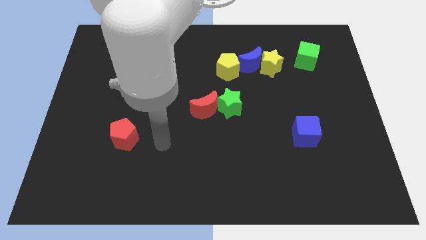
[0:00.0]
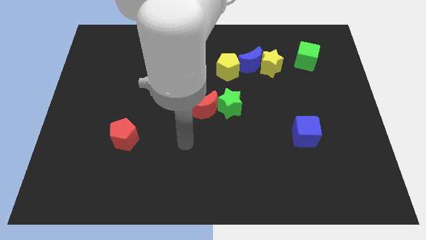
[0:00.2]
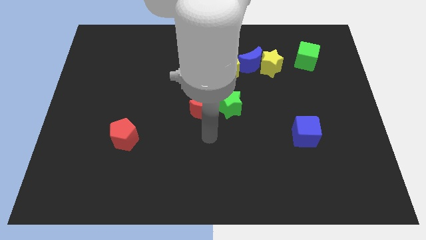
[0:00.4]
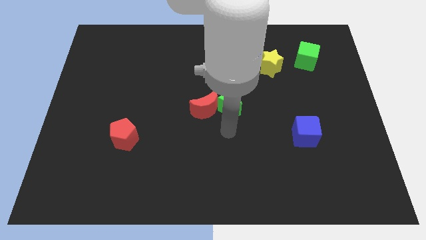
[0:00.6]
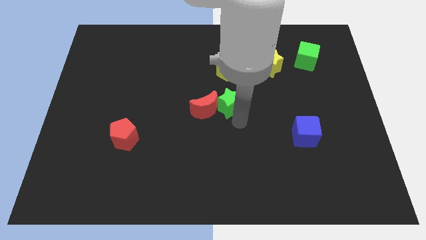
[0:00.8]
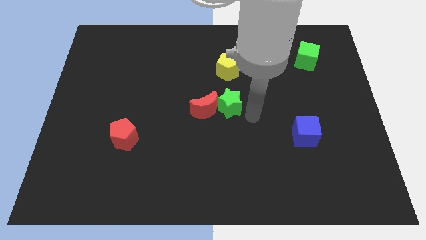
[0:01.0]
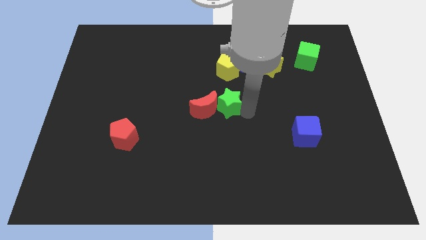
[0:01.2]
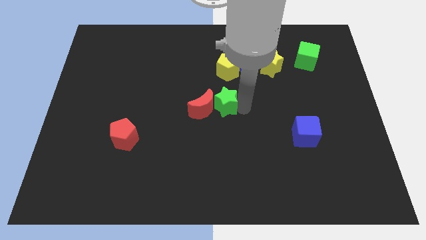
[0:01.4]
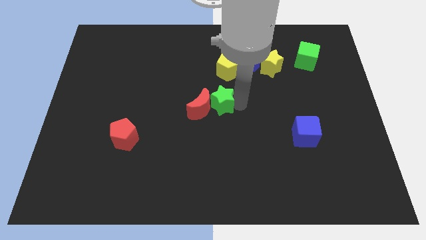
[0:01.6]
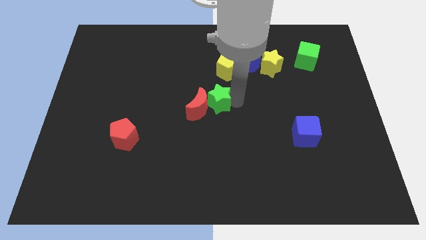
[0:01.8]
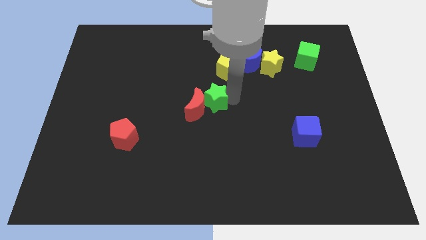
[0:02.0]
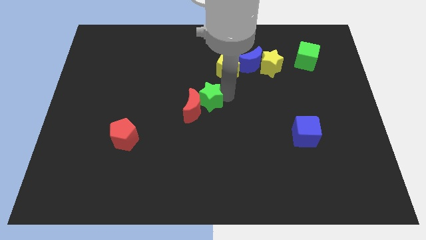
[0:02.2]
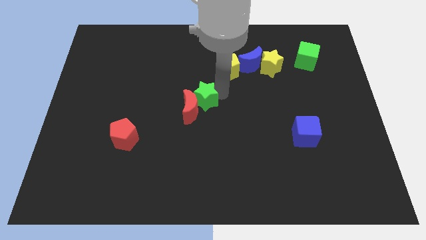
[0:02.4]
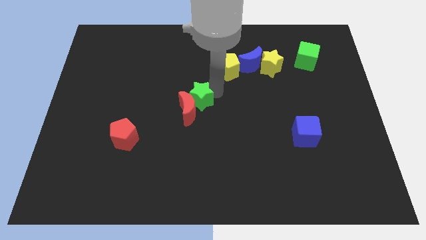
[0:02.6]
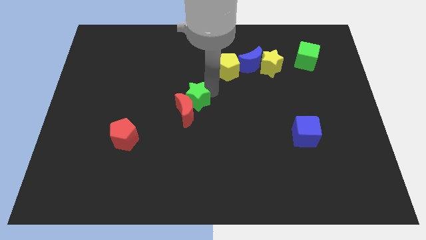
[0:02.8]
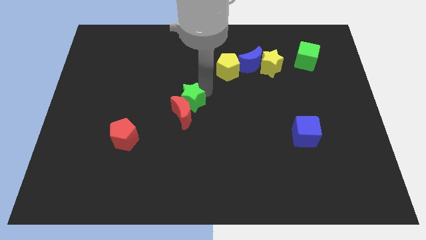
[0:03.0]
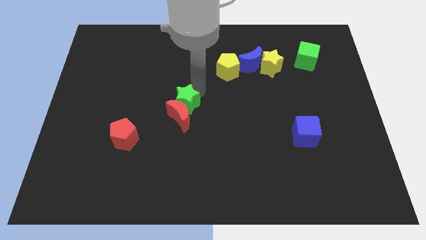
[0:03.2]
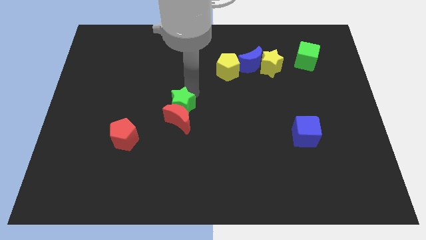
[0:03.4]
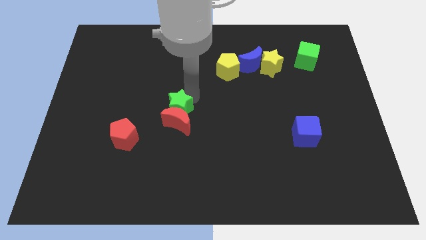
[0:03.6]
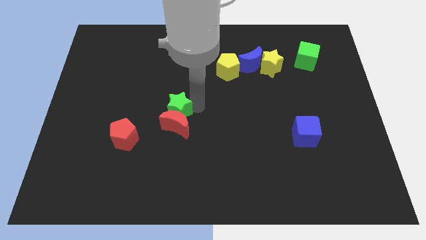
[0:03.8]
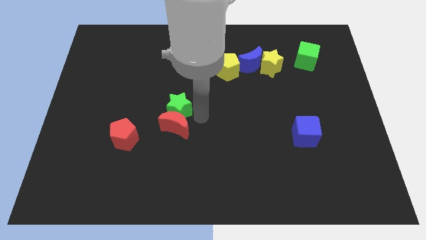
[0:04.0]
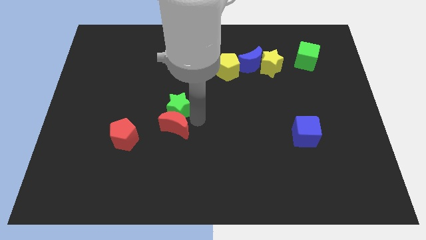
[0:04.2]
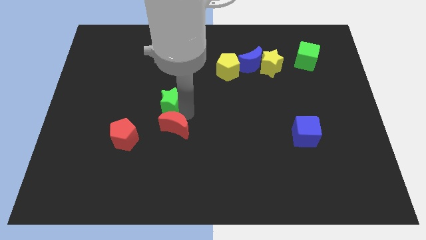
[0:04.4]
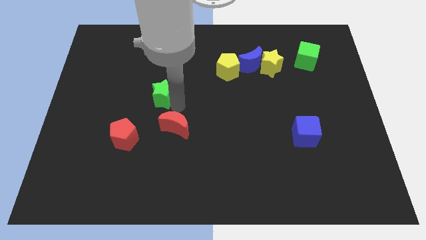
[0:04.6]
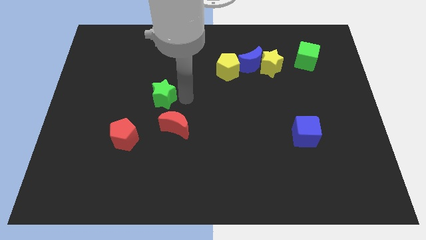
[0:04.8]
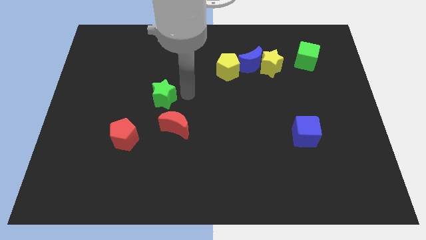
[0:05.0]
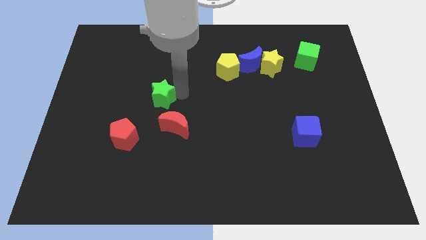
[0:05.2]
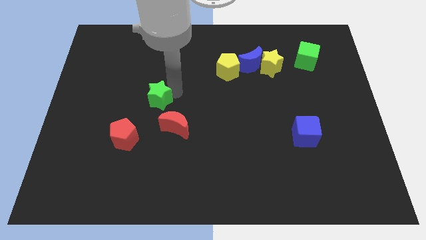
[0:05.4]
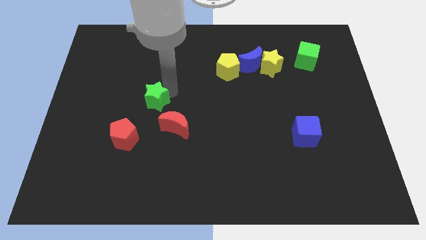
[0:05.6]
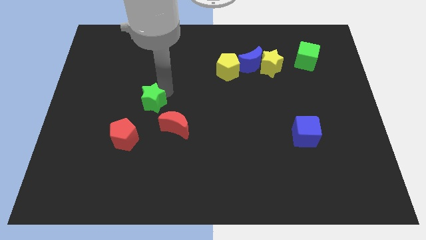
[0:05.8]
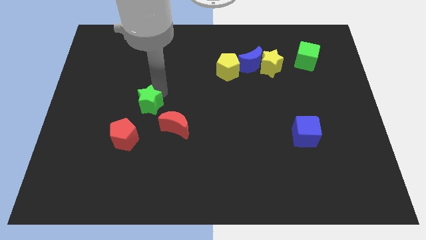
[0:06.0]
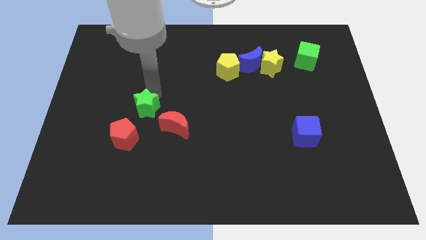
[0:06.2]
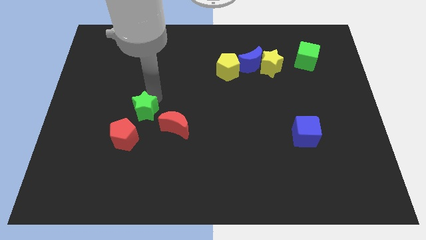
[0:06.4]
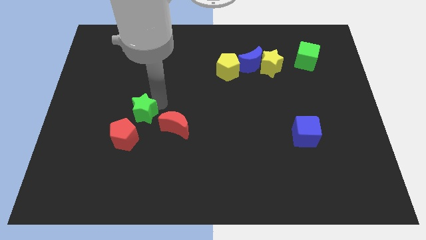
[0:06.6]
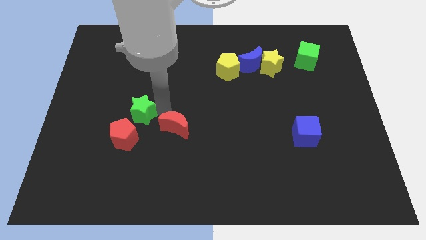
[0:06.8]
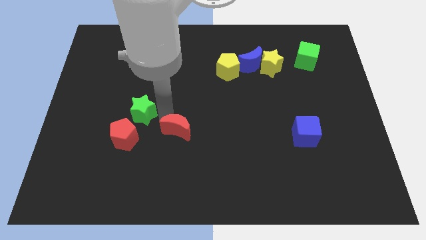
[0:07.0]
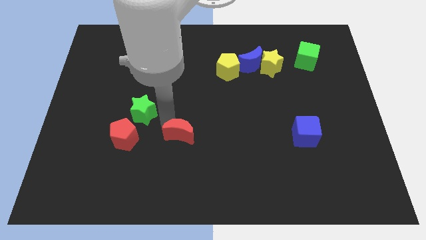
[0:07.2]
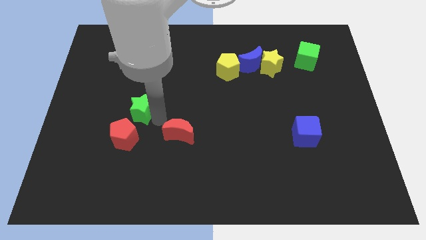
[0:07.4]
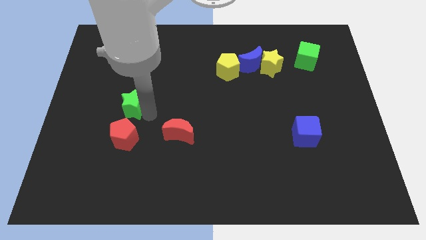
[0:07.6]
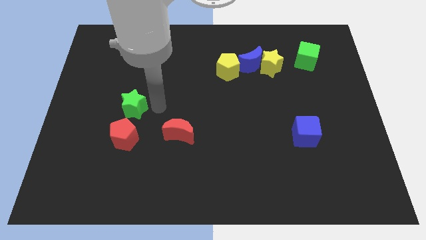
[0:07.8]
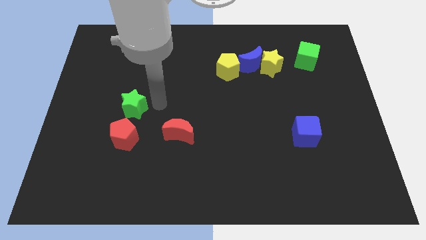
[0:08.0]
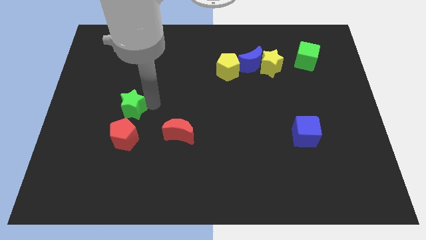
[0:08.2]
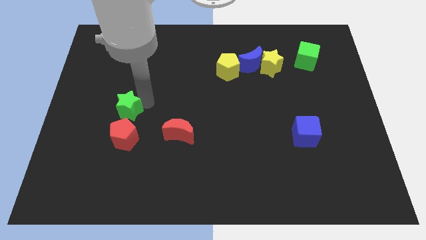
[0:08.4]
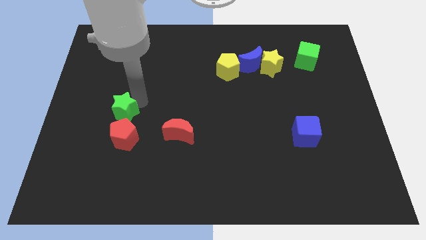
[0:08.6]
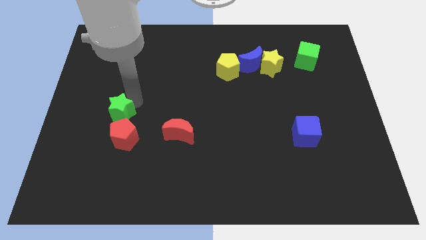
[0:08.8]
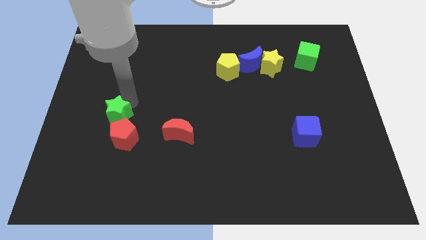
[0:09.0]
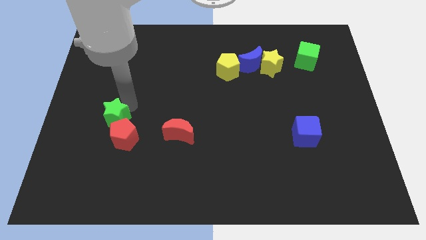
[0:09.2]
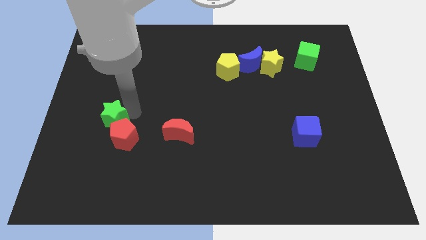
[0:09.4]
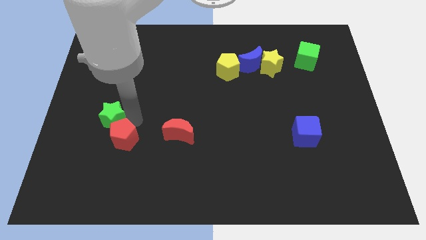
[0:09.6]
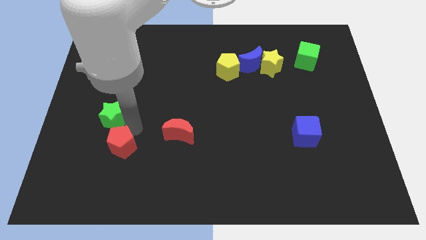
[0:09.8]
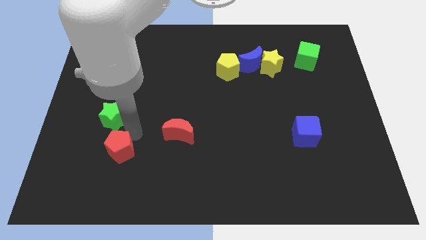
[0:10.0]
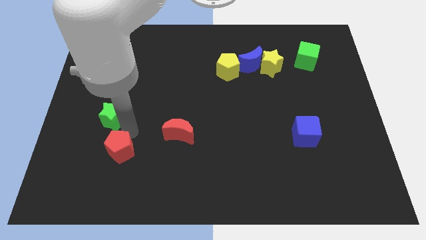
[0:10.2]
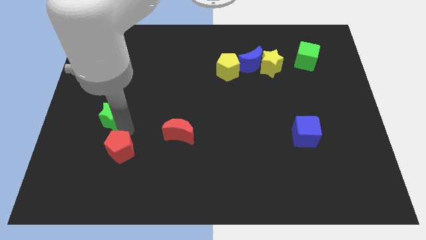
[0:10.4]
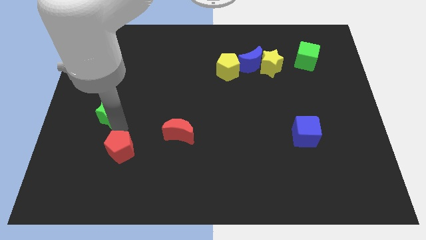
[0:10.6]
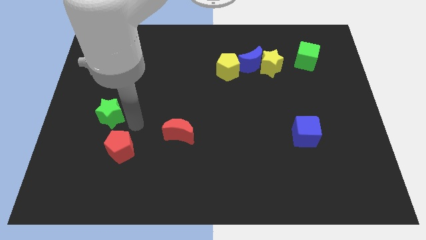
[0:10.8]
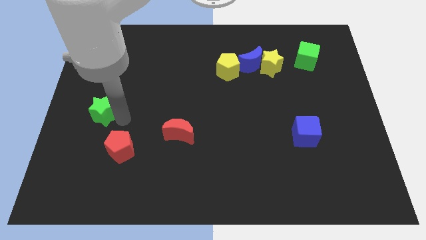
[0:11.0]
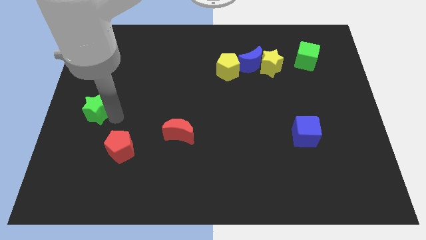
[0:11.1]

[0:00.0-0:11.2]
move the green star to the left side of the board

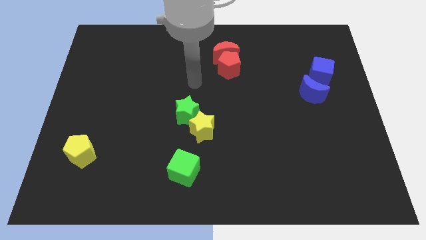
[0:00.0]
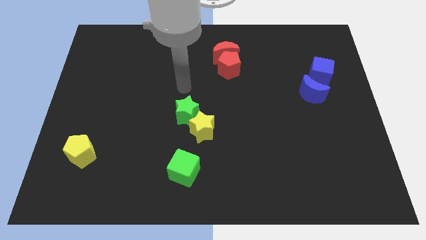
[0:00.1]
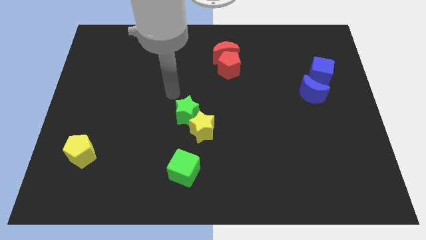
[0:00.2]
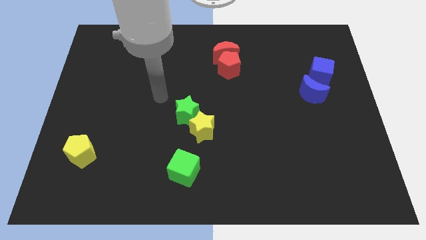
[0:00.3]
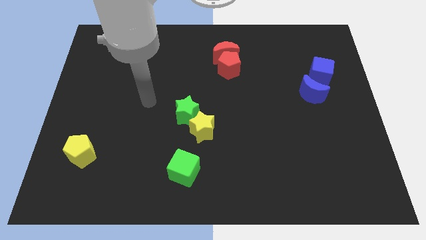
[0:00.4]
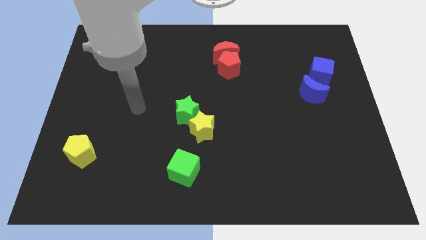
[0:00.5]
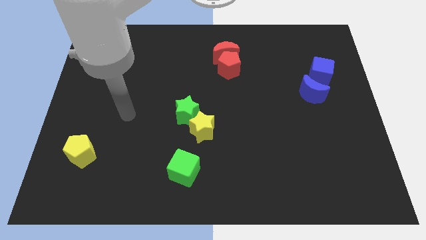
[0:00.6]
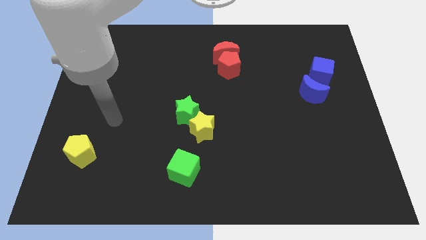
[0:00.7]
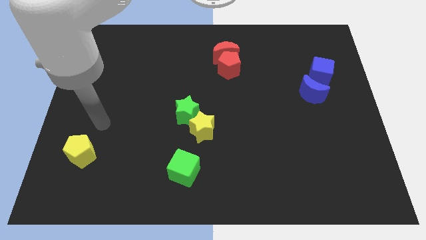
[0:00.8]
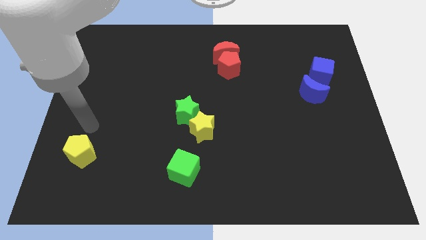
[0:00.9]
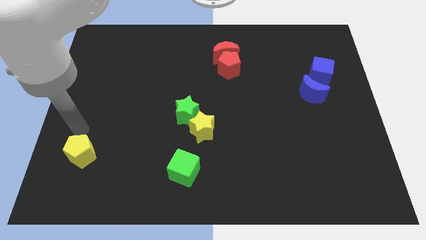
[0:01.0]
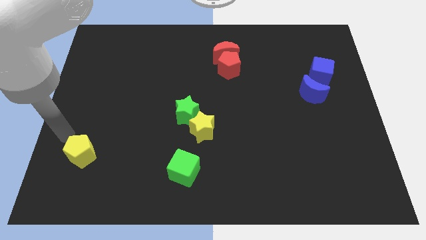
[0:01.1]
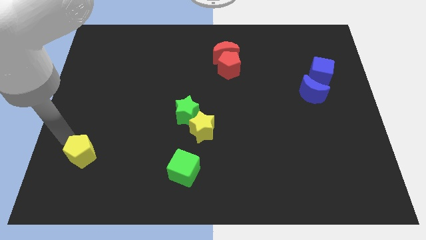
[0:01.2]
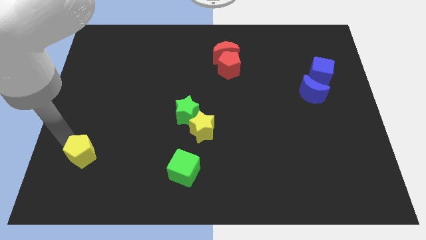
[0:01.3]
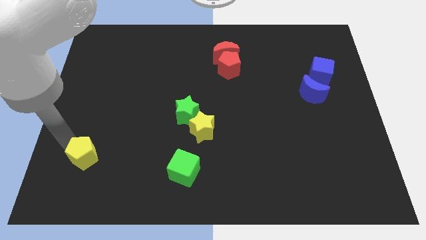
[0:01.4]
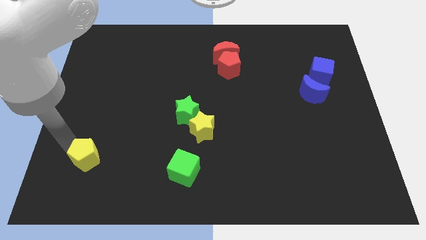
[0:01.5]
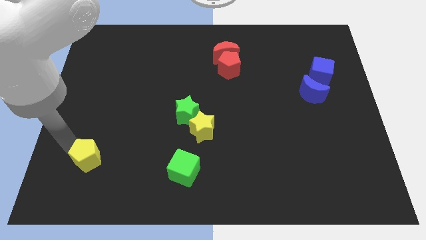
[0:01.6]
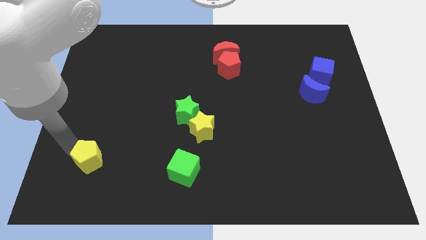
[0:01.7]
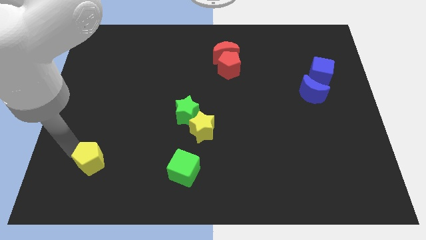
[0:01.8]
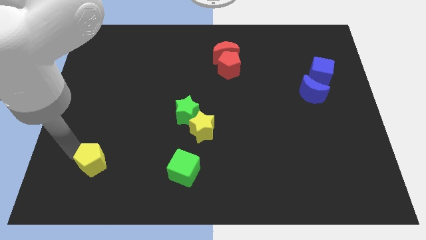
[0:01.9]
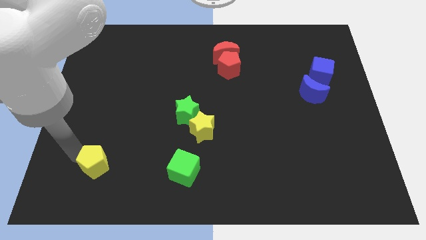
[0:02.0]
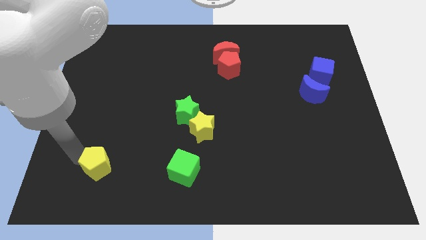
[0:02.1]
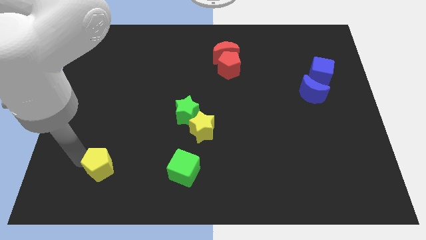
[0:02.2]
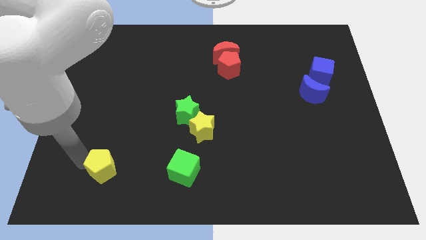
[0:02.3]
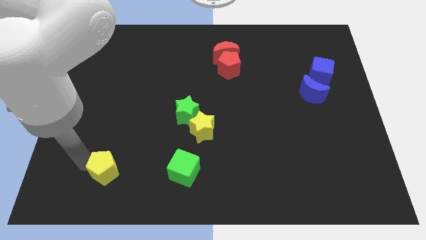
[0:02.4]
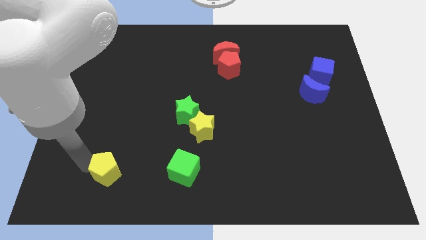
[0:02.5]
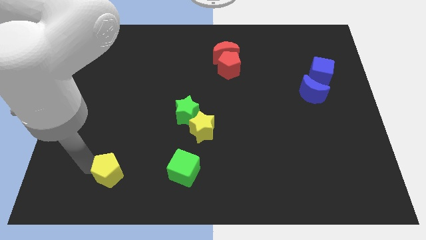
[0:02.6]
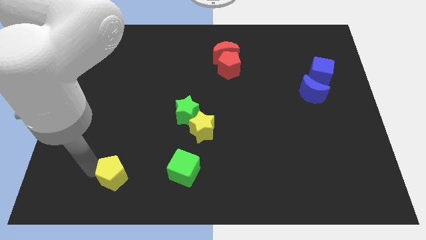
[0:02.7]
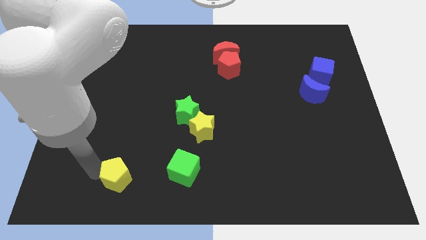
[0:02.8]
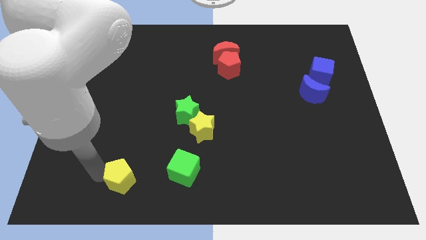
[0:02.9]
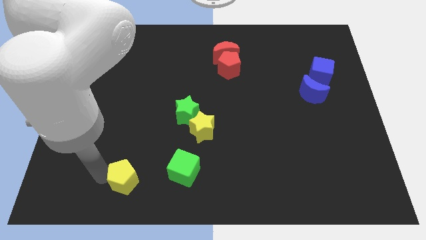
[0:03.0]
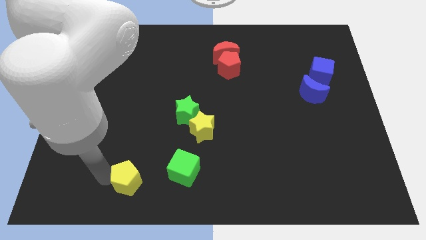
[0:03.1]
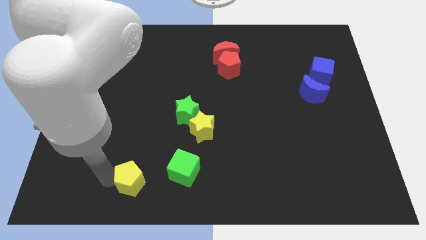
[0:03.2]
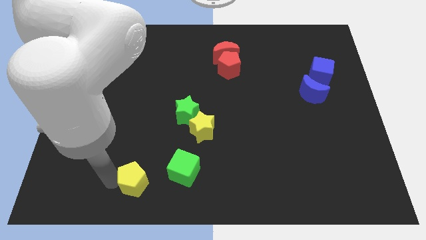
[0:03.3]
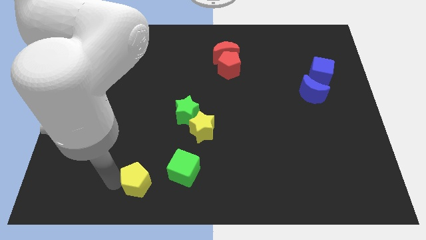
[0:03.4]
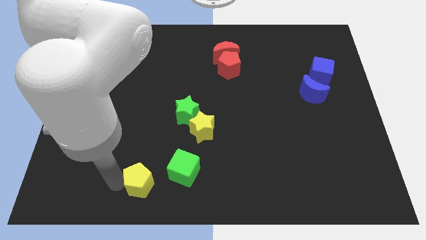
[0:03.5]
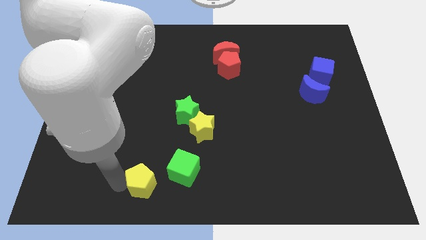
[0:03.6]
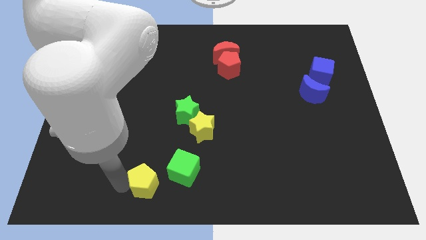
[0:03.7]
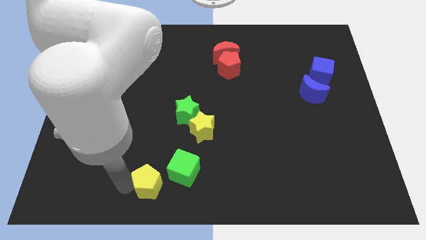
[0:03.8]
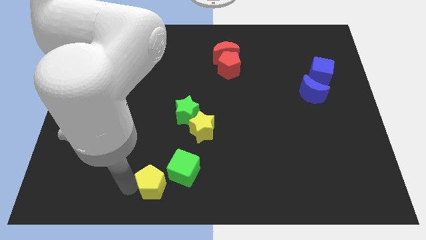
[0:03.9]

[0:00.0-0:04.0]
slide the yellow pentagon to the bottom side
